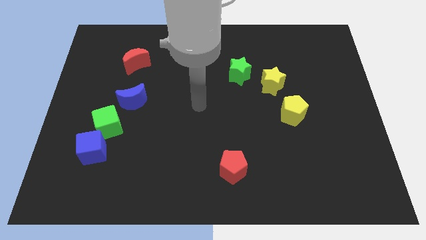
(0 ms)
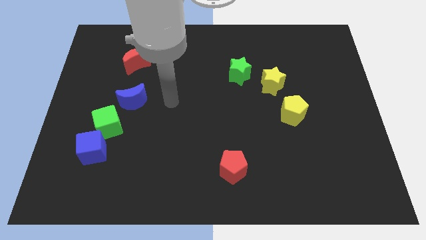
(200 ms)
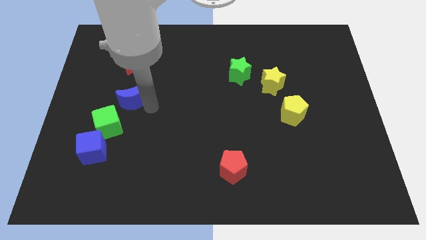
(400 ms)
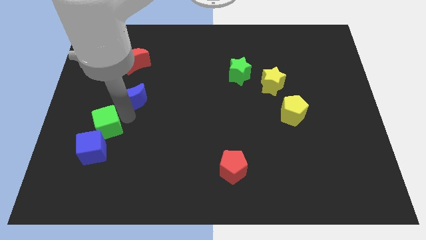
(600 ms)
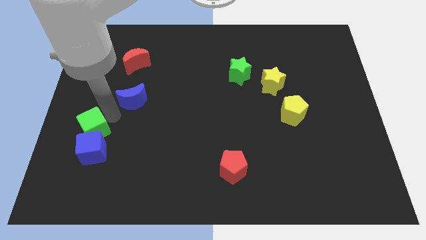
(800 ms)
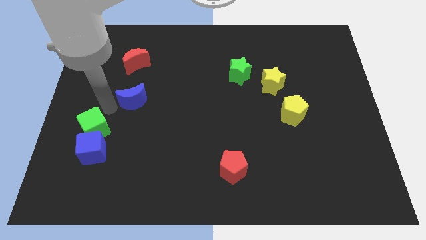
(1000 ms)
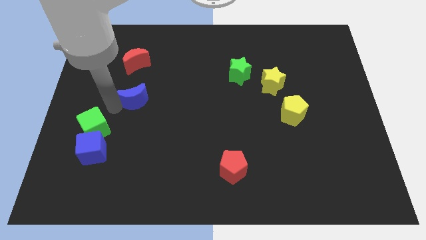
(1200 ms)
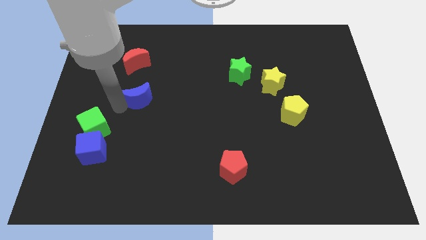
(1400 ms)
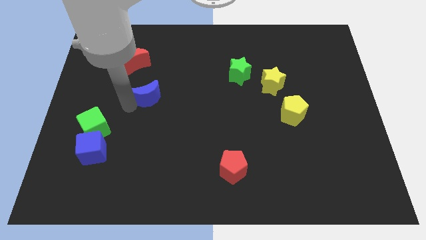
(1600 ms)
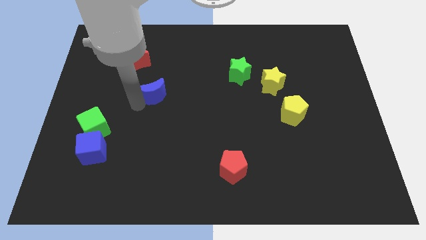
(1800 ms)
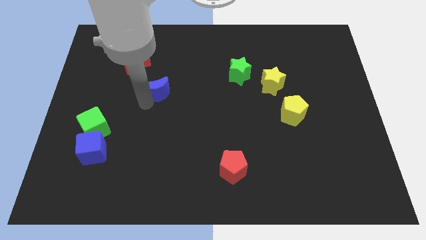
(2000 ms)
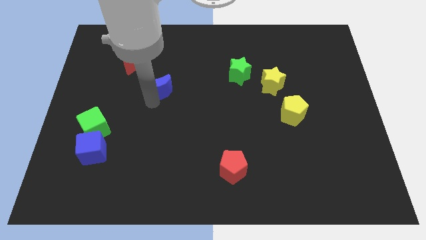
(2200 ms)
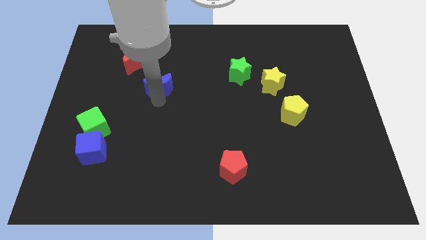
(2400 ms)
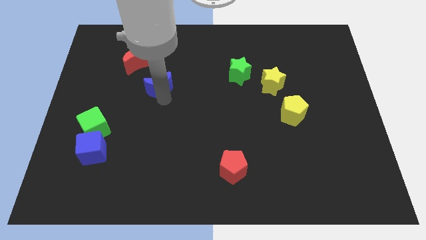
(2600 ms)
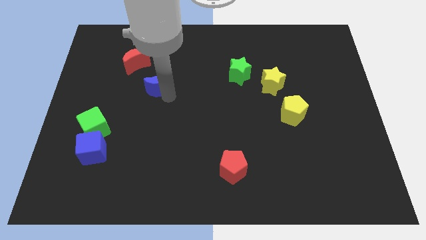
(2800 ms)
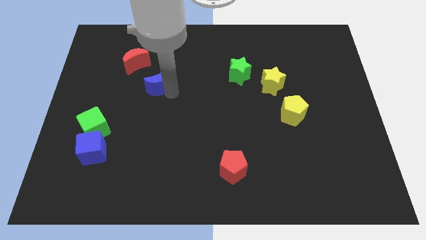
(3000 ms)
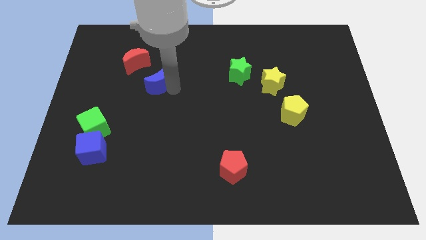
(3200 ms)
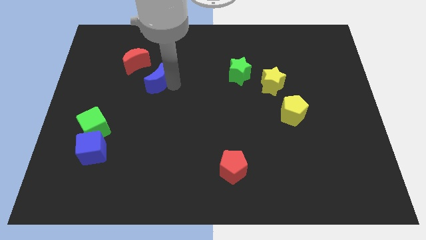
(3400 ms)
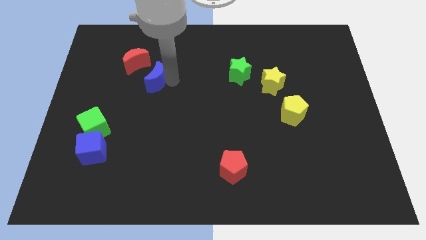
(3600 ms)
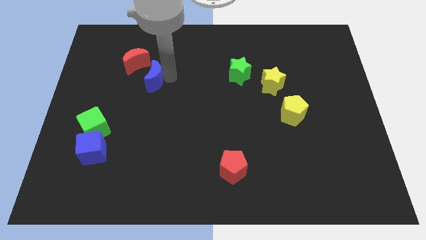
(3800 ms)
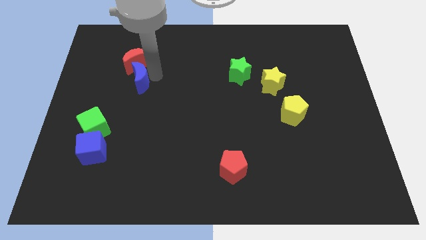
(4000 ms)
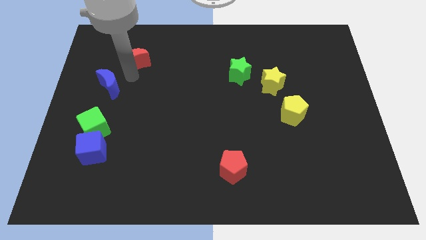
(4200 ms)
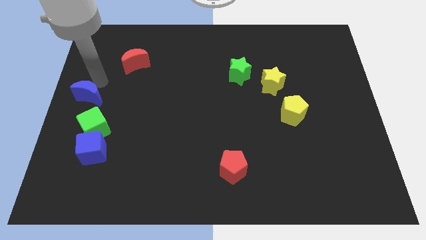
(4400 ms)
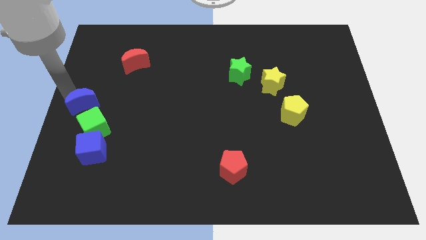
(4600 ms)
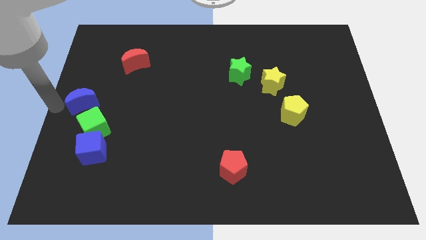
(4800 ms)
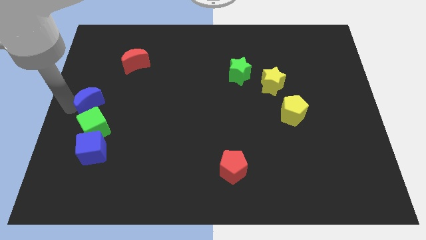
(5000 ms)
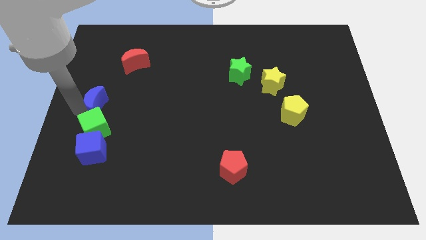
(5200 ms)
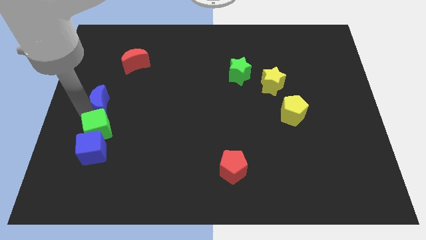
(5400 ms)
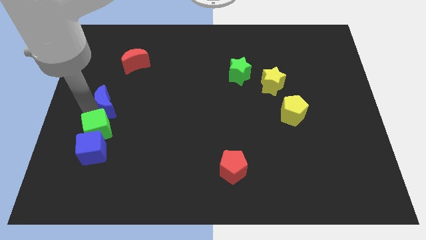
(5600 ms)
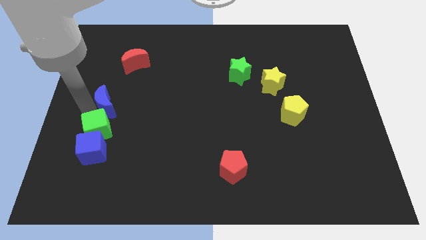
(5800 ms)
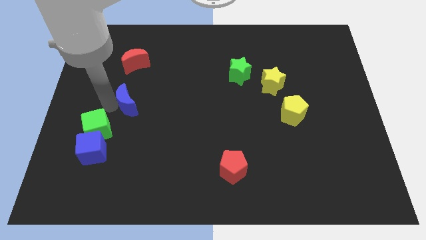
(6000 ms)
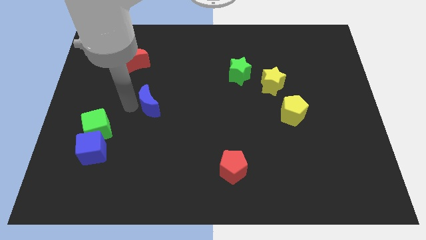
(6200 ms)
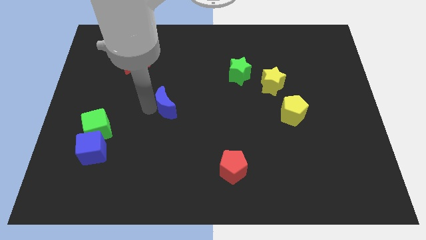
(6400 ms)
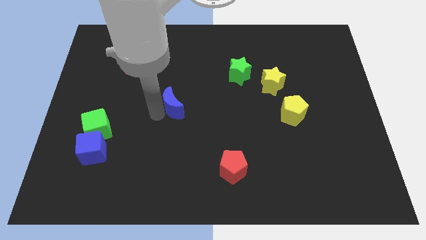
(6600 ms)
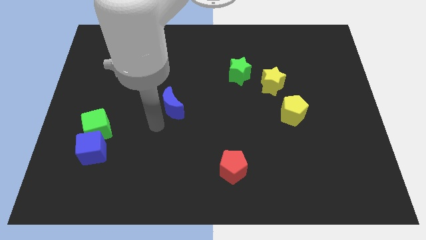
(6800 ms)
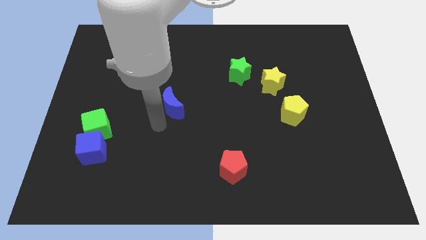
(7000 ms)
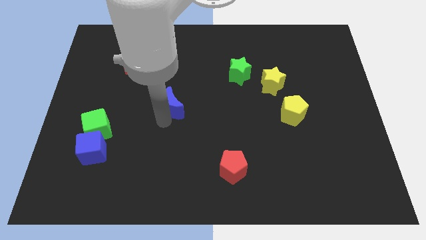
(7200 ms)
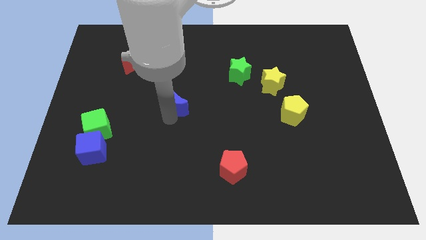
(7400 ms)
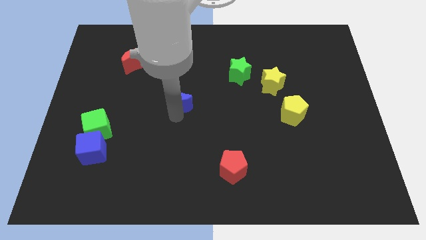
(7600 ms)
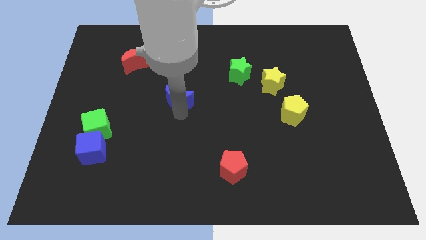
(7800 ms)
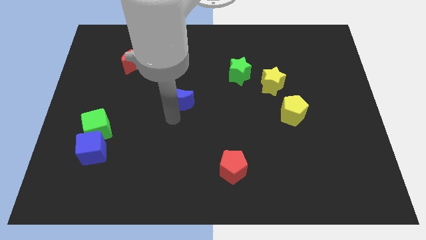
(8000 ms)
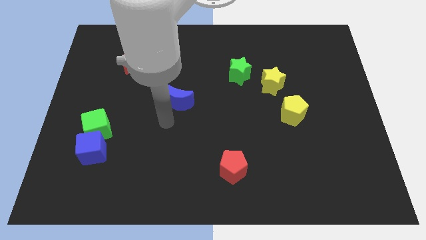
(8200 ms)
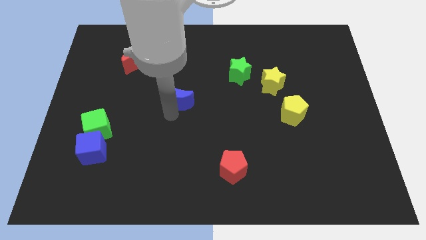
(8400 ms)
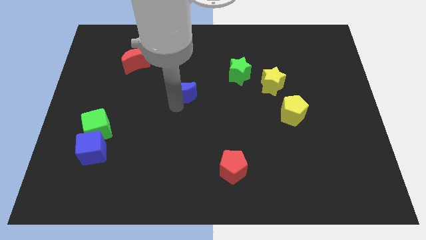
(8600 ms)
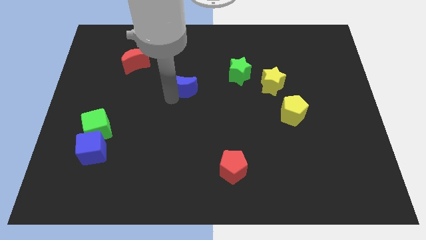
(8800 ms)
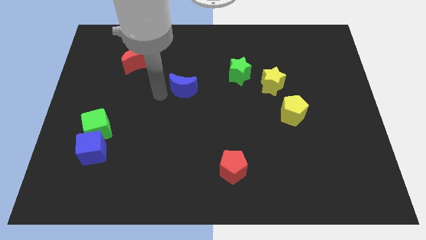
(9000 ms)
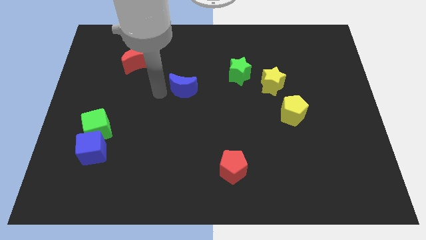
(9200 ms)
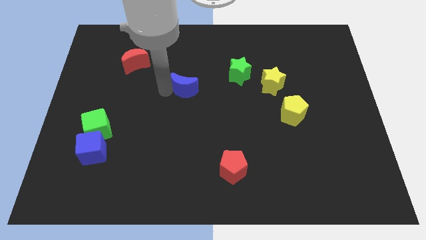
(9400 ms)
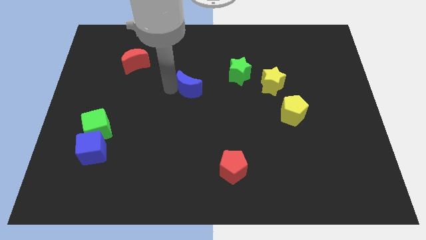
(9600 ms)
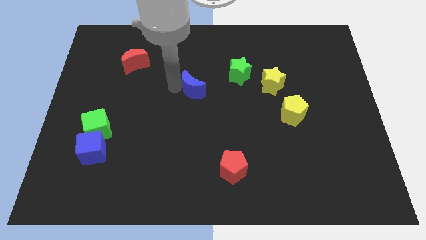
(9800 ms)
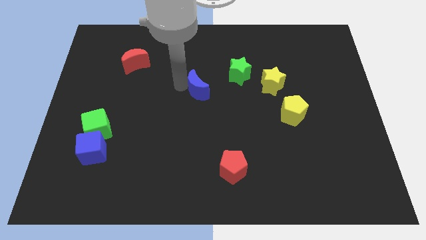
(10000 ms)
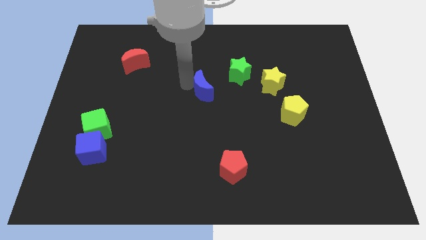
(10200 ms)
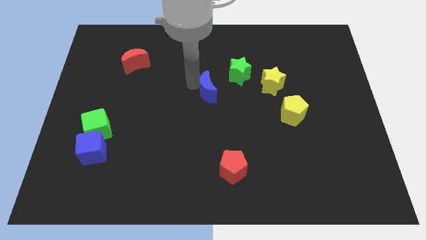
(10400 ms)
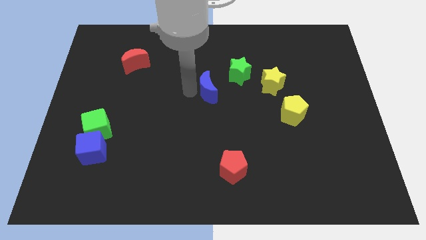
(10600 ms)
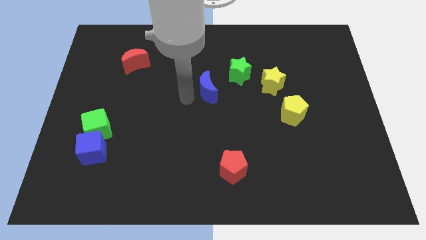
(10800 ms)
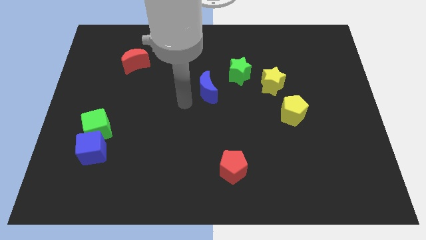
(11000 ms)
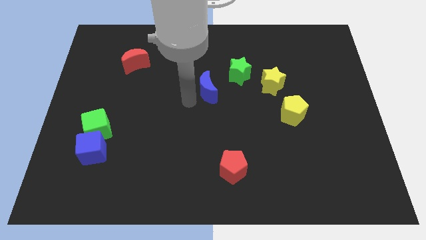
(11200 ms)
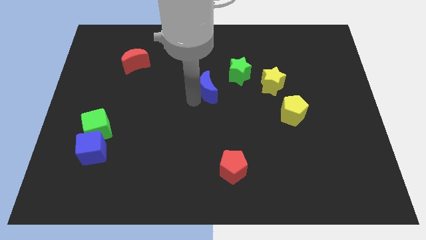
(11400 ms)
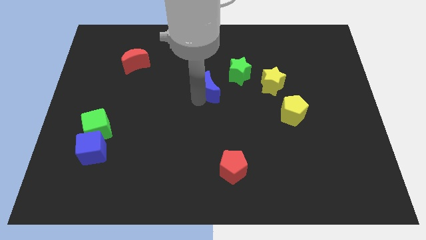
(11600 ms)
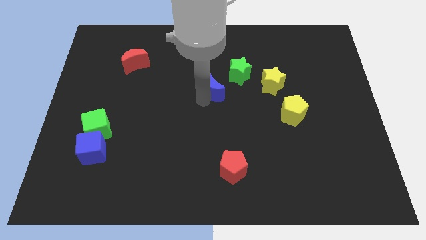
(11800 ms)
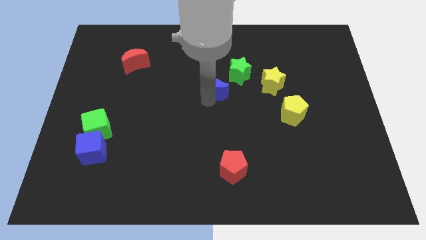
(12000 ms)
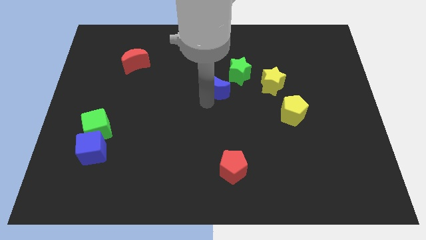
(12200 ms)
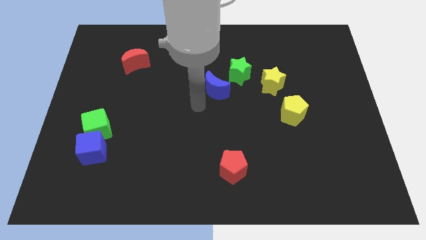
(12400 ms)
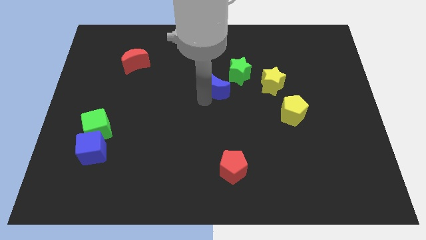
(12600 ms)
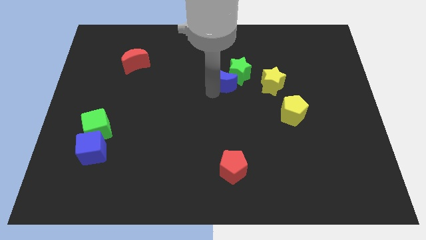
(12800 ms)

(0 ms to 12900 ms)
slide the blue moon towards the green star

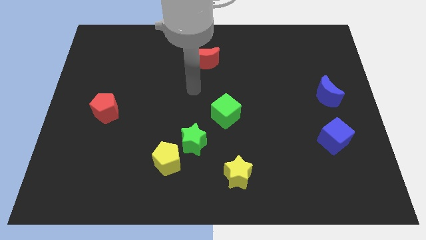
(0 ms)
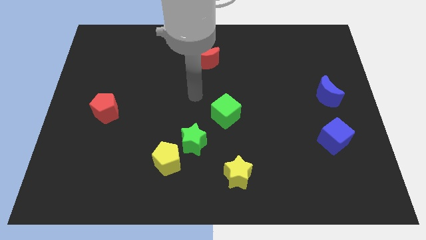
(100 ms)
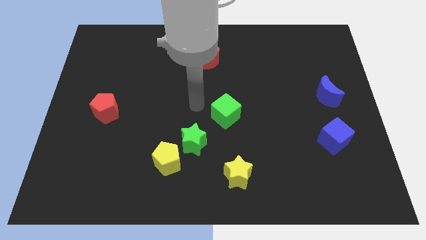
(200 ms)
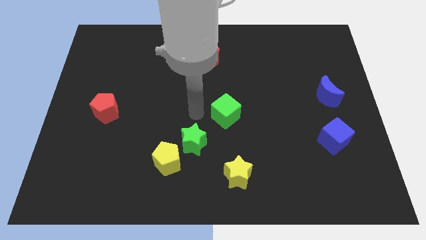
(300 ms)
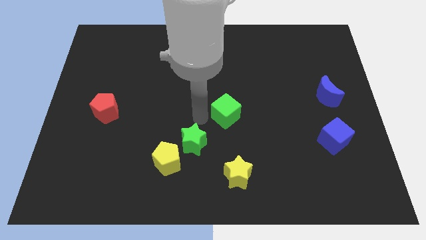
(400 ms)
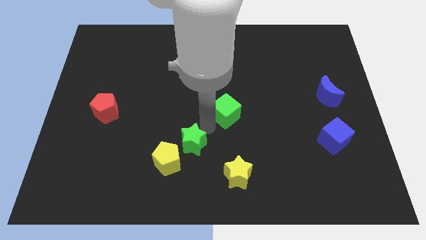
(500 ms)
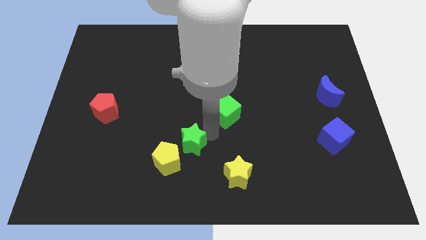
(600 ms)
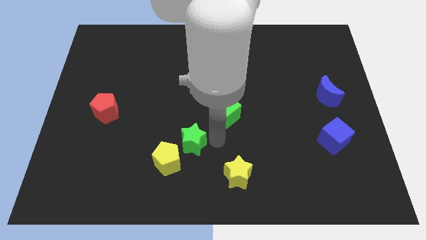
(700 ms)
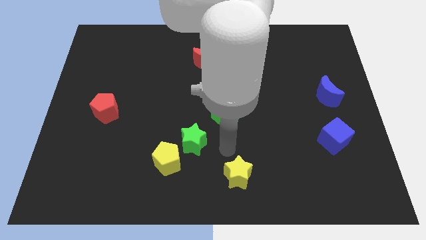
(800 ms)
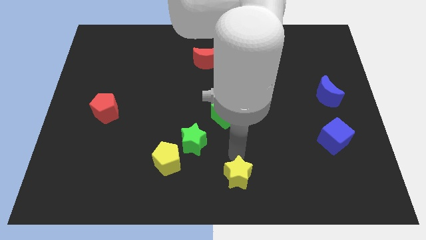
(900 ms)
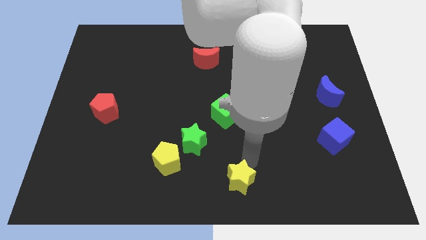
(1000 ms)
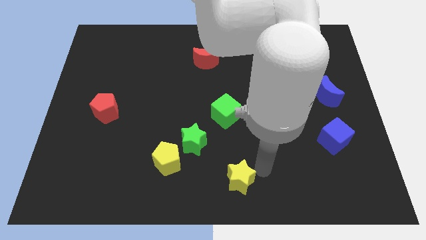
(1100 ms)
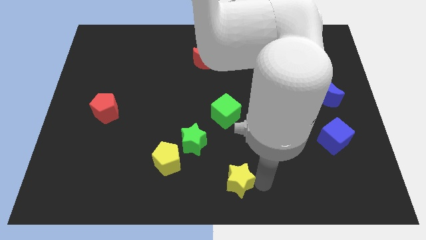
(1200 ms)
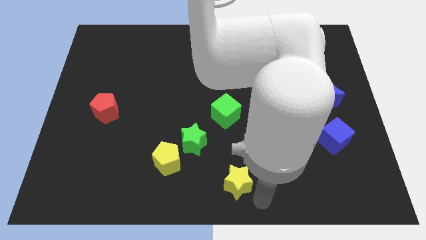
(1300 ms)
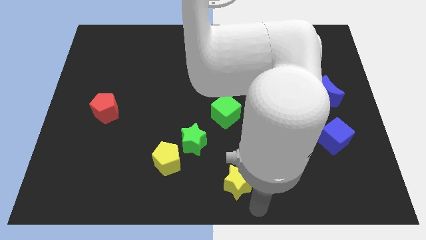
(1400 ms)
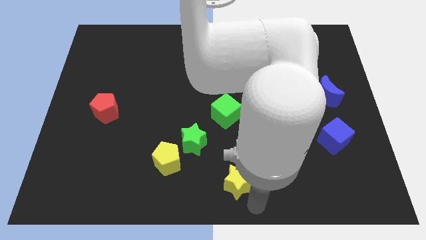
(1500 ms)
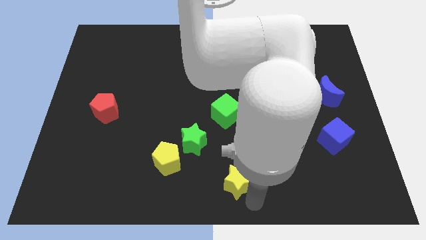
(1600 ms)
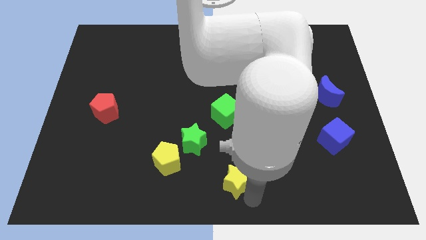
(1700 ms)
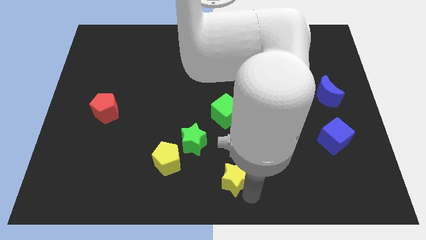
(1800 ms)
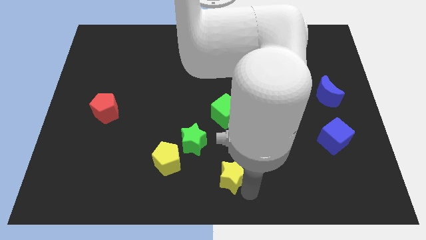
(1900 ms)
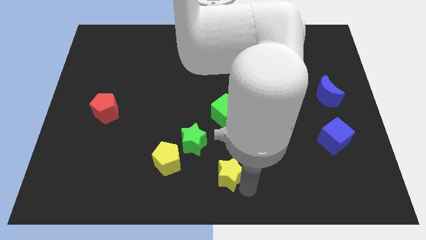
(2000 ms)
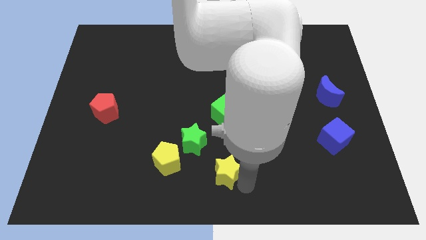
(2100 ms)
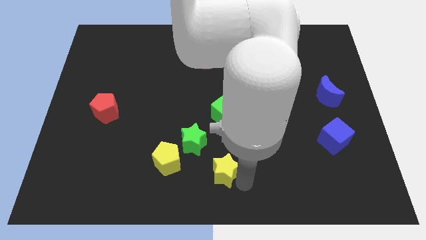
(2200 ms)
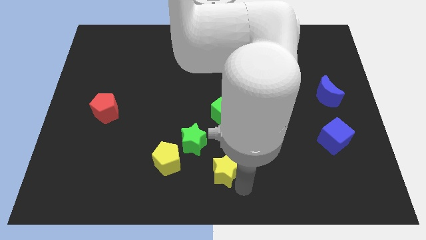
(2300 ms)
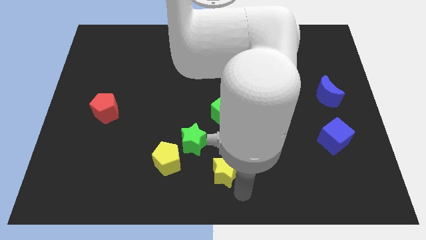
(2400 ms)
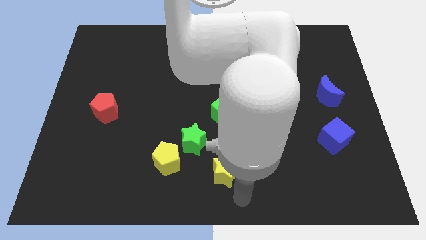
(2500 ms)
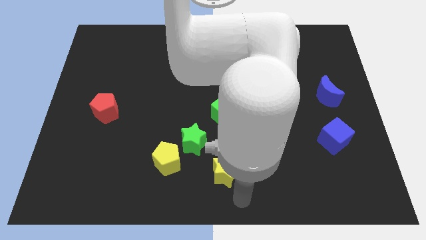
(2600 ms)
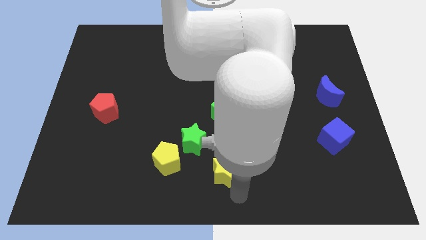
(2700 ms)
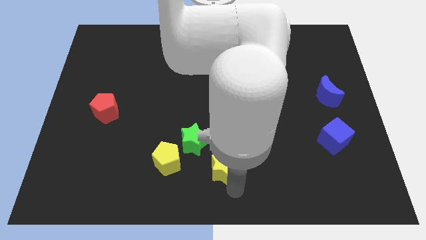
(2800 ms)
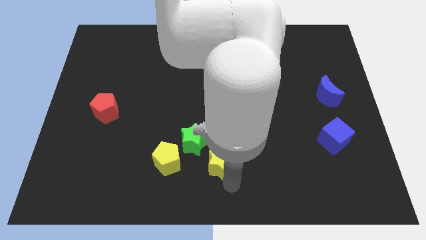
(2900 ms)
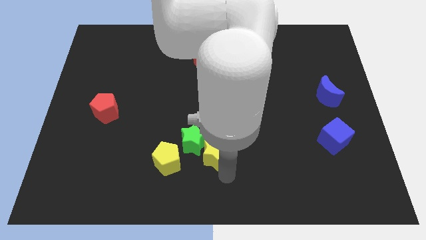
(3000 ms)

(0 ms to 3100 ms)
move the yellow star towards the green star
